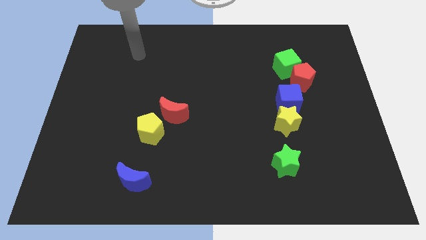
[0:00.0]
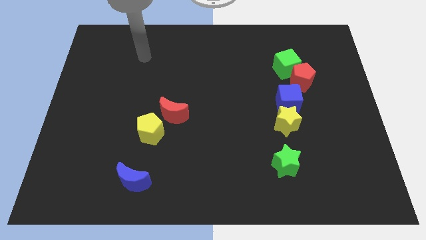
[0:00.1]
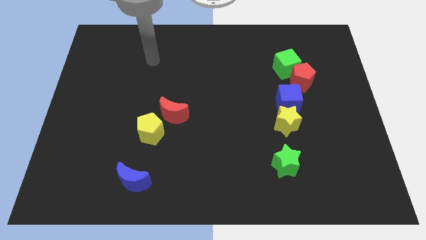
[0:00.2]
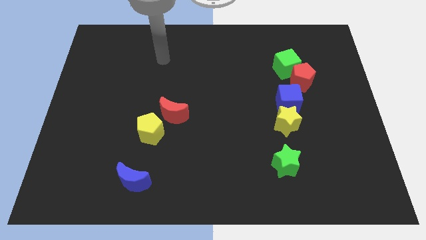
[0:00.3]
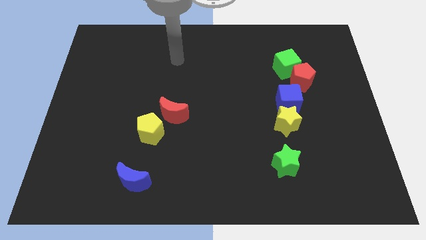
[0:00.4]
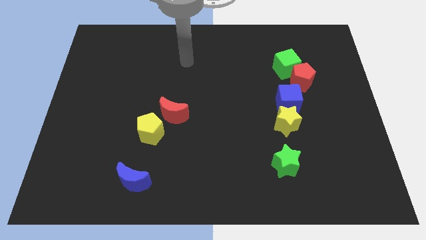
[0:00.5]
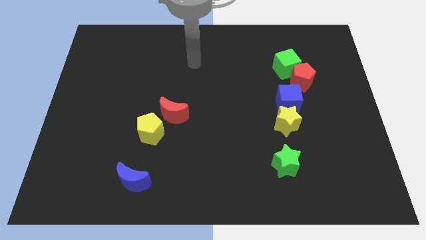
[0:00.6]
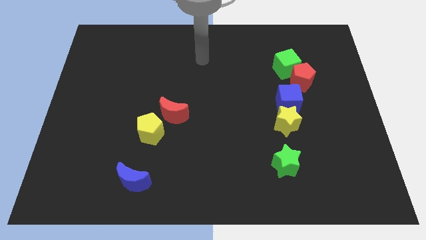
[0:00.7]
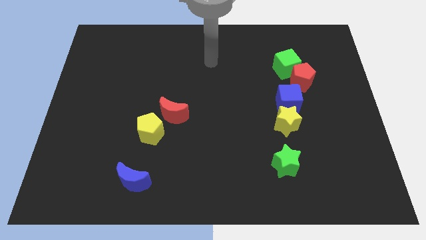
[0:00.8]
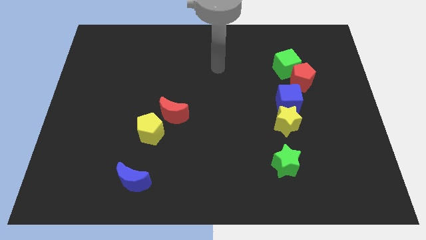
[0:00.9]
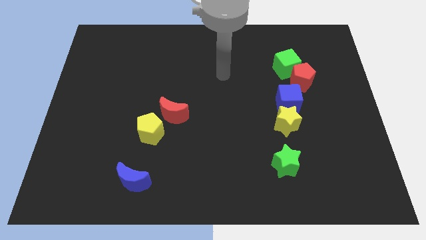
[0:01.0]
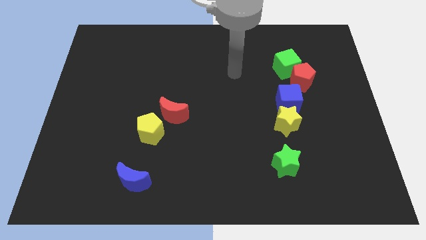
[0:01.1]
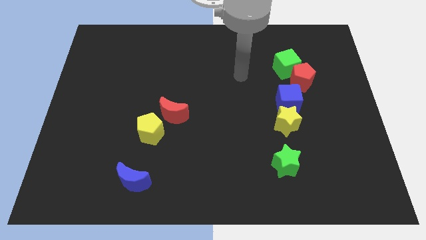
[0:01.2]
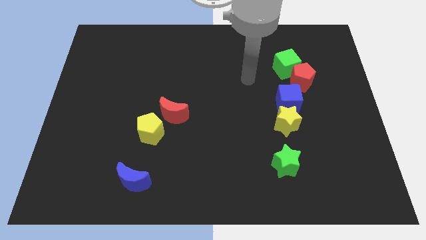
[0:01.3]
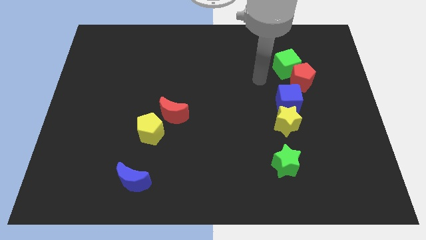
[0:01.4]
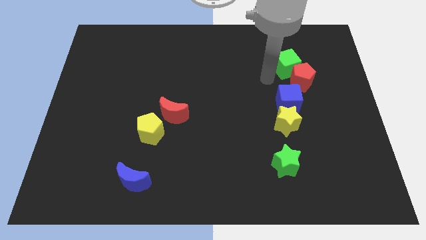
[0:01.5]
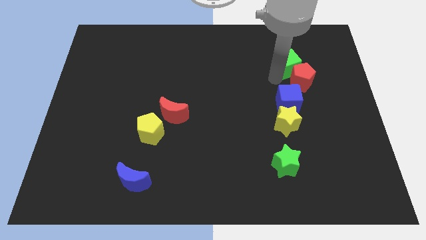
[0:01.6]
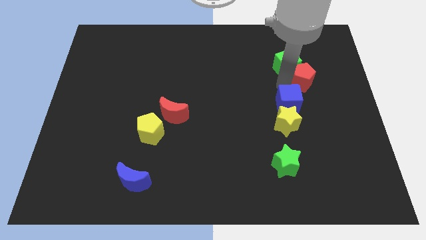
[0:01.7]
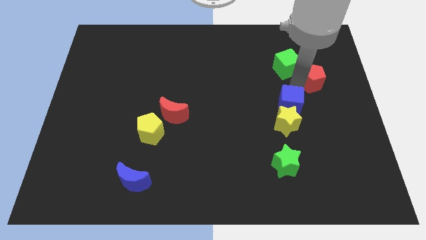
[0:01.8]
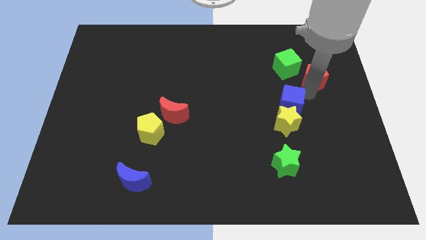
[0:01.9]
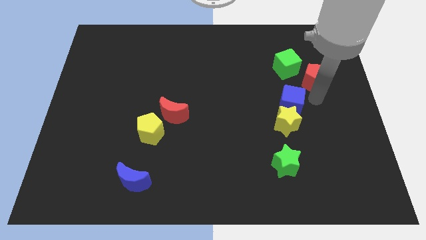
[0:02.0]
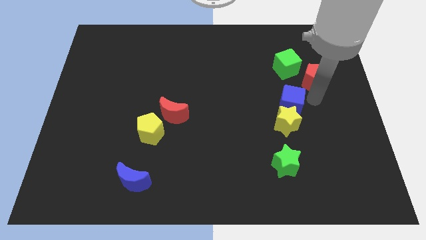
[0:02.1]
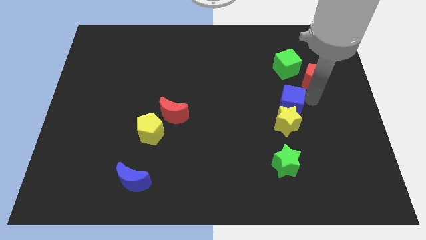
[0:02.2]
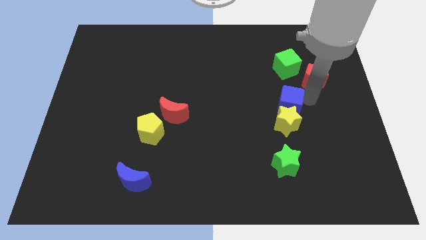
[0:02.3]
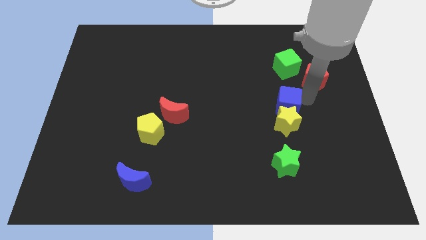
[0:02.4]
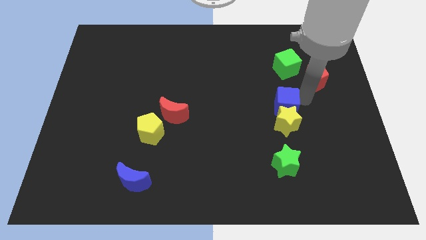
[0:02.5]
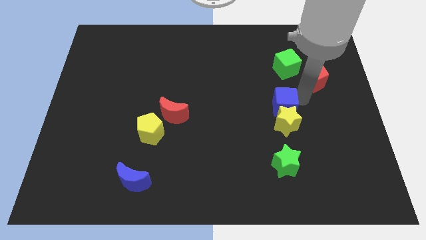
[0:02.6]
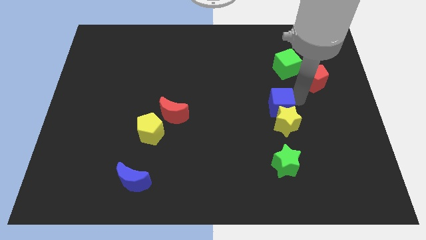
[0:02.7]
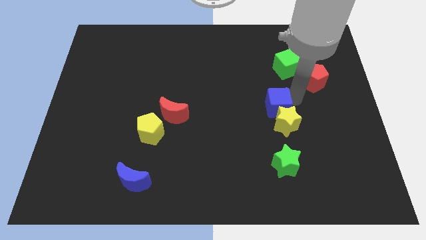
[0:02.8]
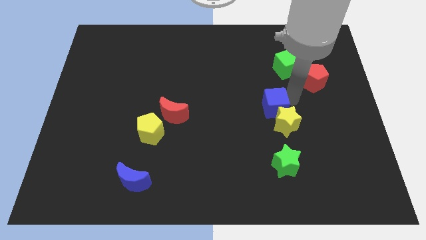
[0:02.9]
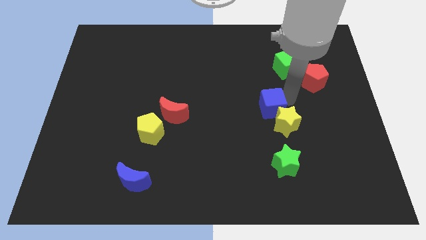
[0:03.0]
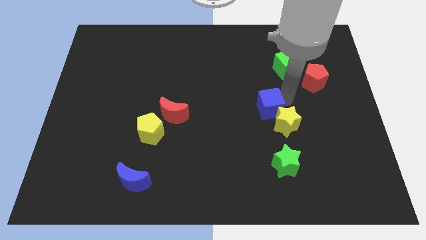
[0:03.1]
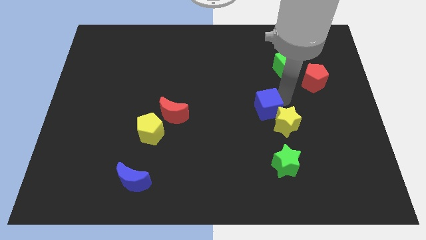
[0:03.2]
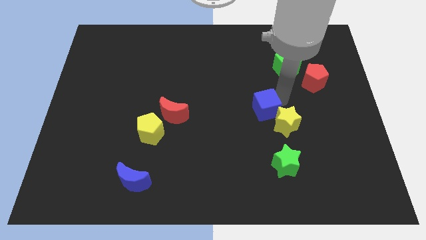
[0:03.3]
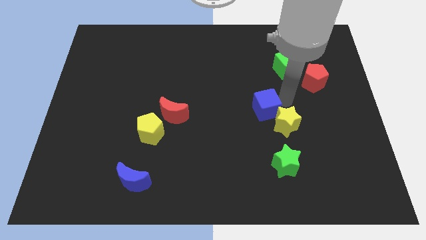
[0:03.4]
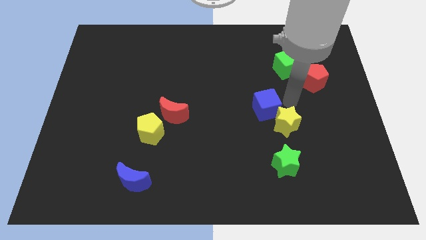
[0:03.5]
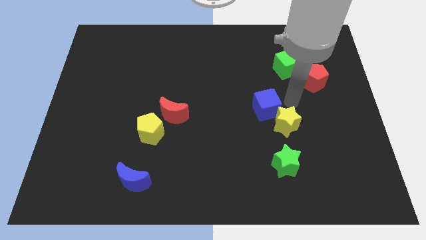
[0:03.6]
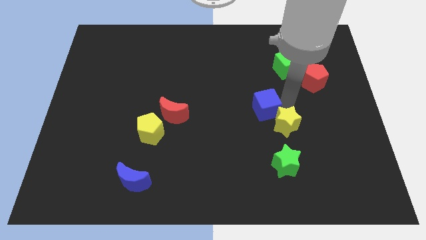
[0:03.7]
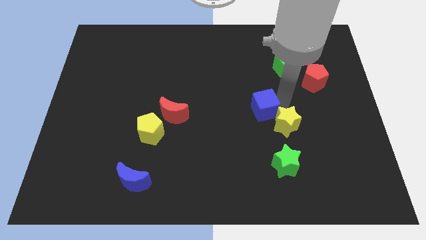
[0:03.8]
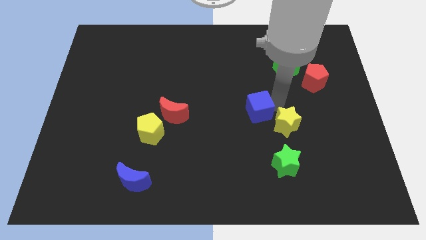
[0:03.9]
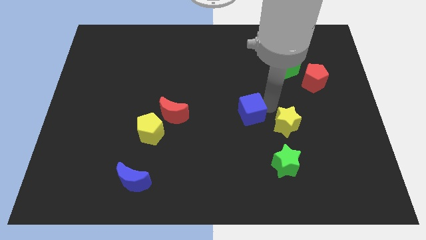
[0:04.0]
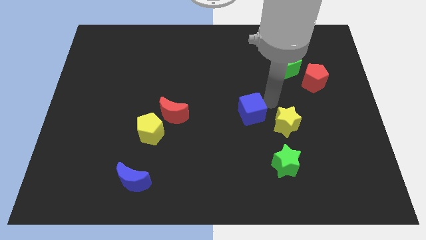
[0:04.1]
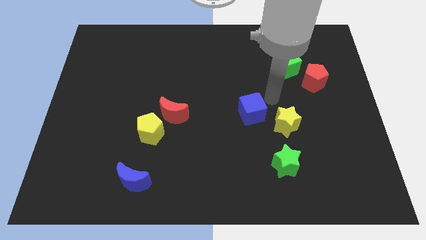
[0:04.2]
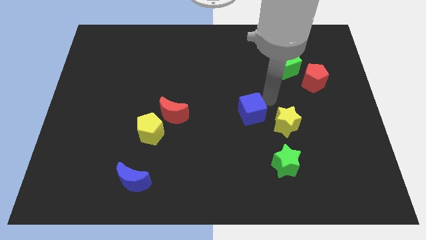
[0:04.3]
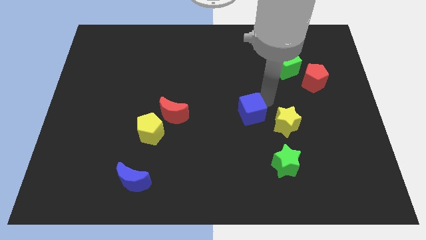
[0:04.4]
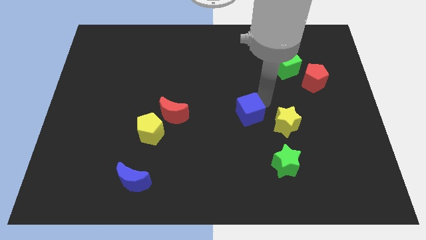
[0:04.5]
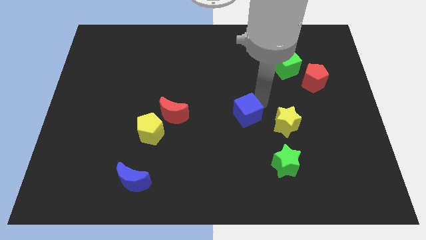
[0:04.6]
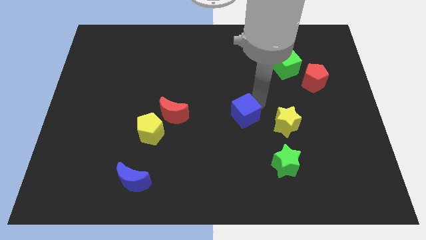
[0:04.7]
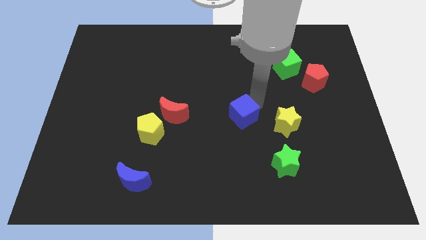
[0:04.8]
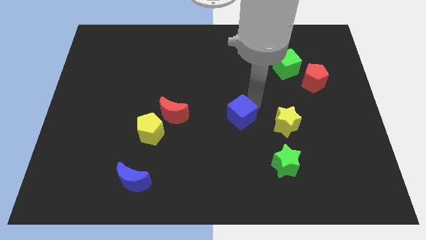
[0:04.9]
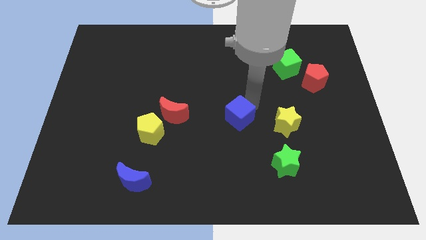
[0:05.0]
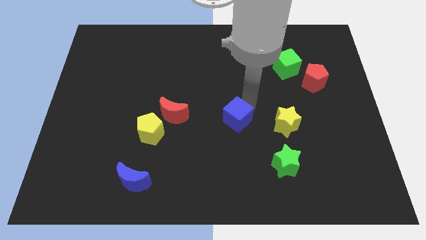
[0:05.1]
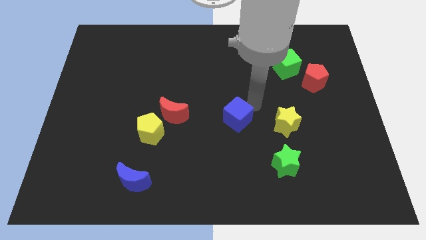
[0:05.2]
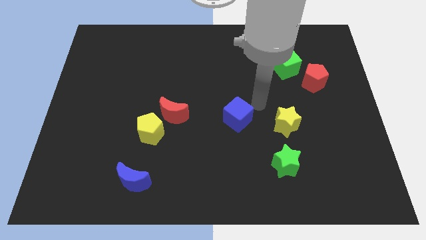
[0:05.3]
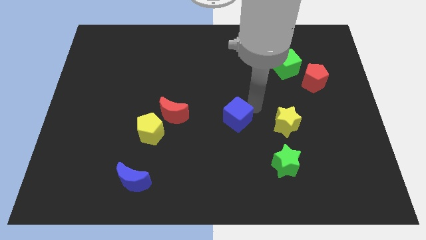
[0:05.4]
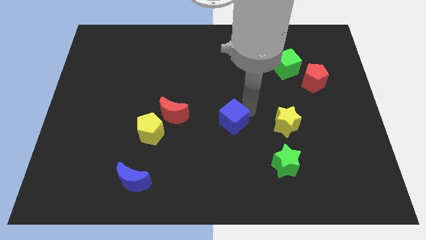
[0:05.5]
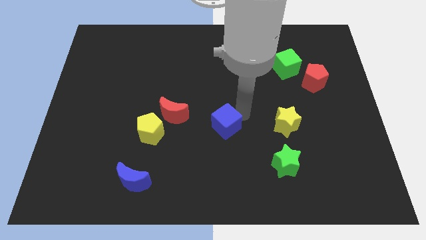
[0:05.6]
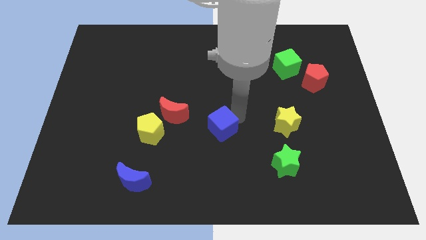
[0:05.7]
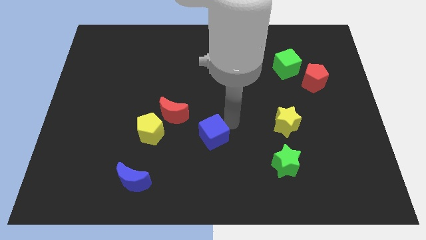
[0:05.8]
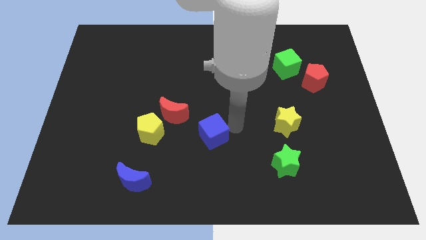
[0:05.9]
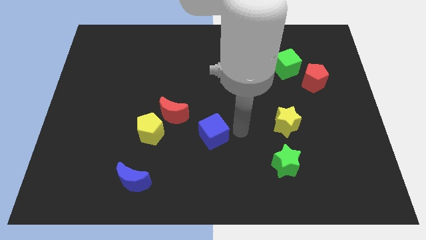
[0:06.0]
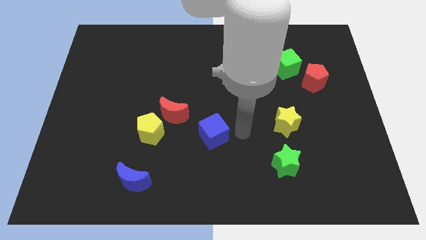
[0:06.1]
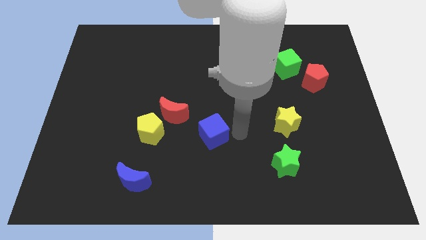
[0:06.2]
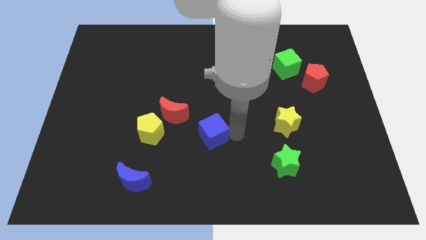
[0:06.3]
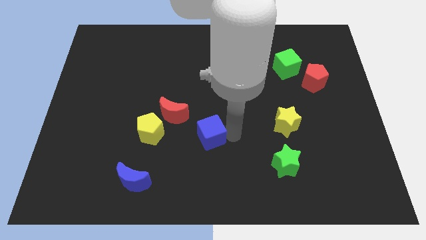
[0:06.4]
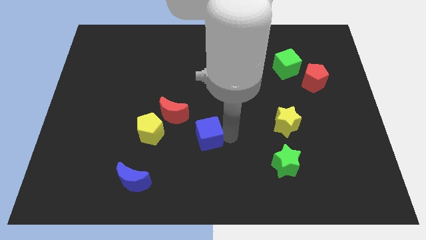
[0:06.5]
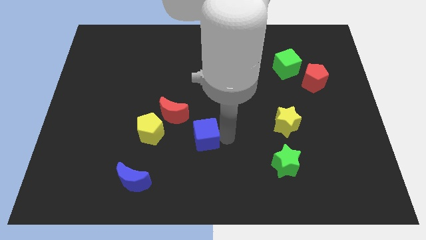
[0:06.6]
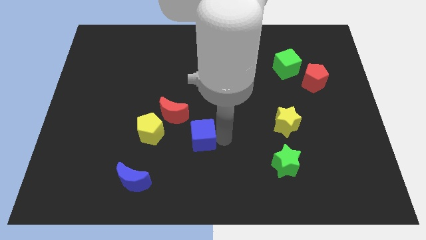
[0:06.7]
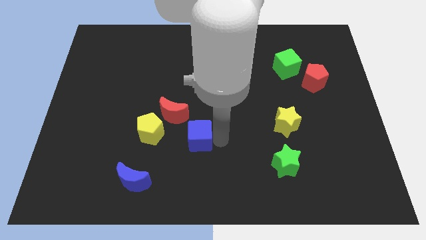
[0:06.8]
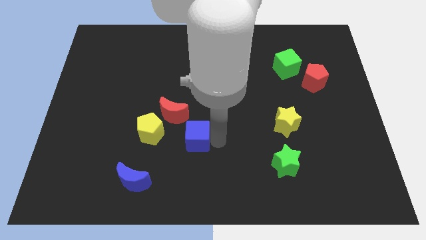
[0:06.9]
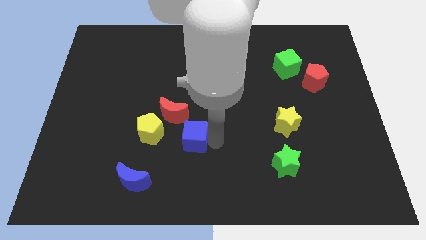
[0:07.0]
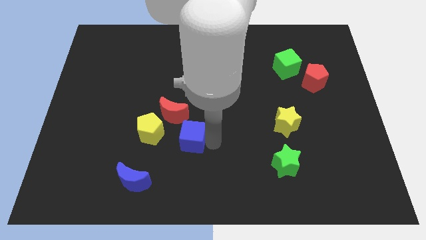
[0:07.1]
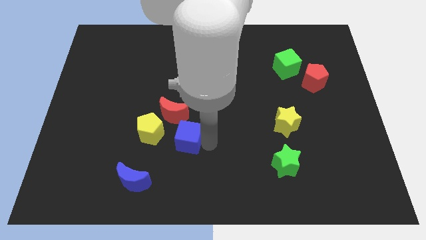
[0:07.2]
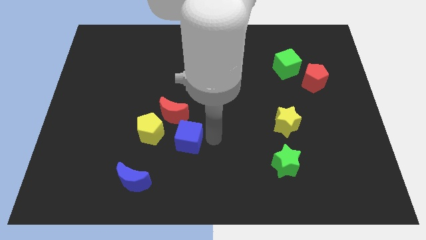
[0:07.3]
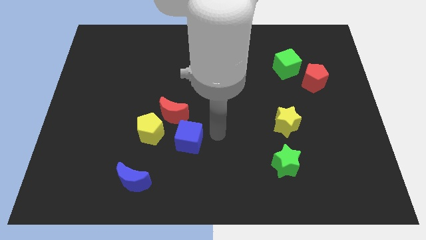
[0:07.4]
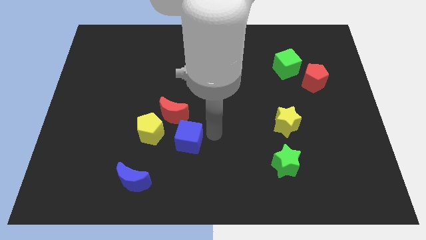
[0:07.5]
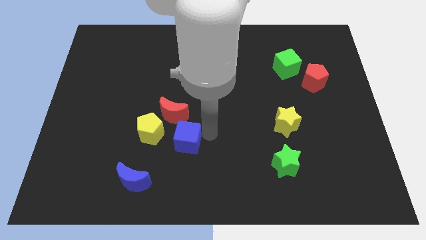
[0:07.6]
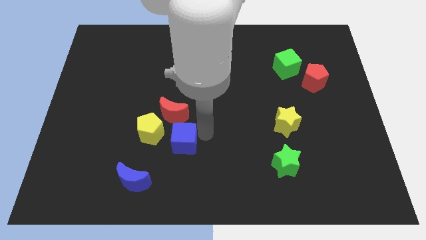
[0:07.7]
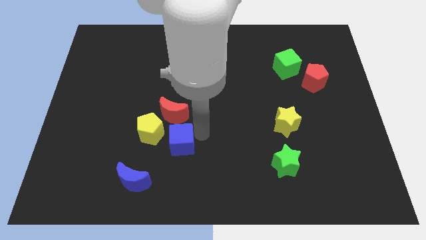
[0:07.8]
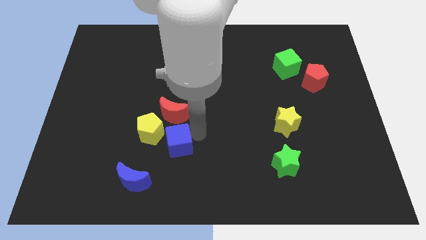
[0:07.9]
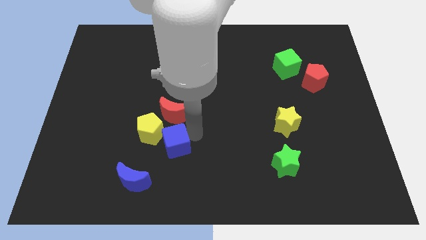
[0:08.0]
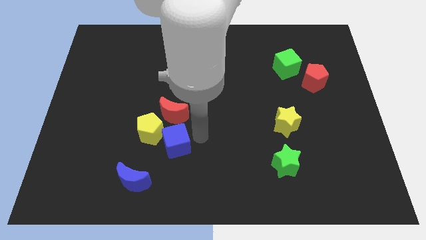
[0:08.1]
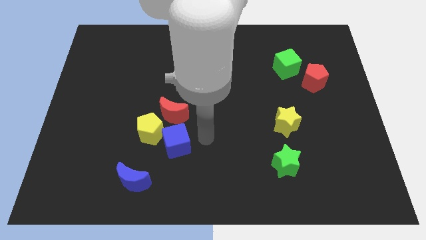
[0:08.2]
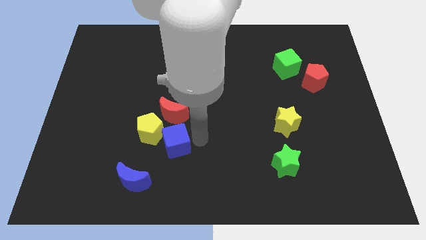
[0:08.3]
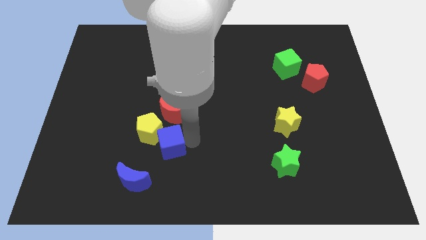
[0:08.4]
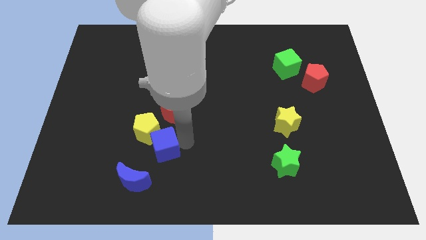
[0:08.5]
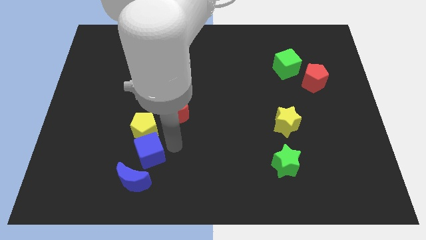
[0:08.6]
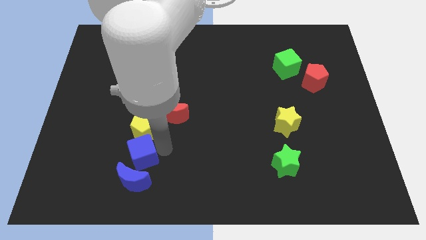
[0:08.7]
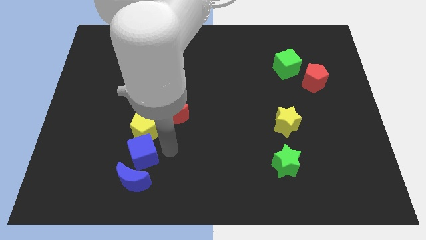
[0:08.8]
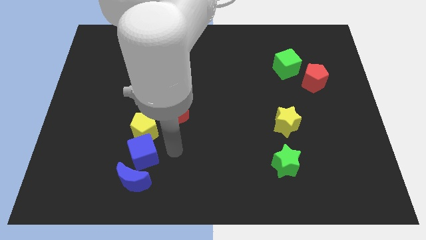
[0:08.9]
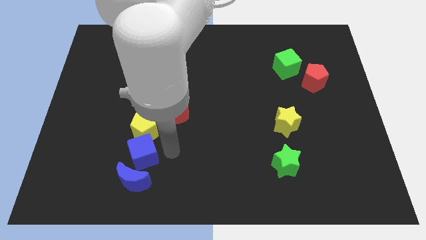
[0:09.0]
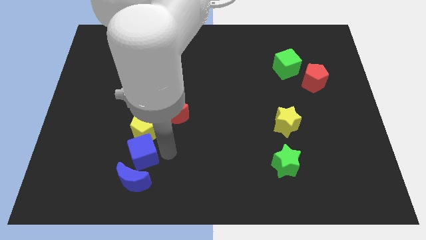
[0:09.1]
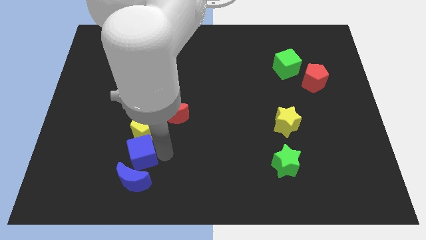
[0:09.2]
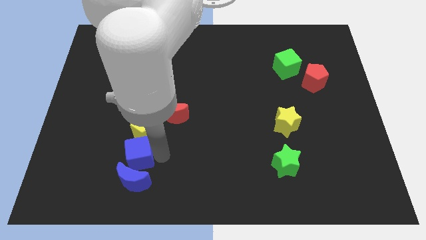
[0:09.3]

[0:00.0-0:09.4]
slide the blue cube to the top left of the blue moon
